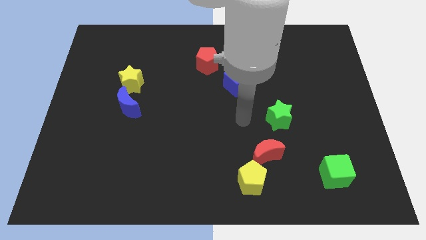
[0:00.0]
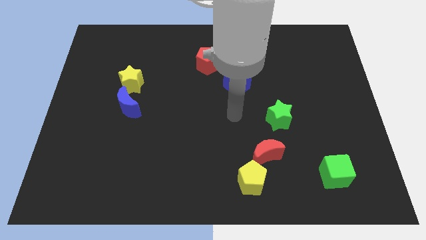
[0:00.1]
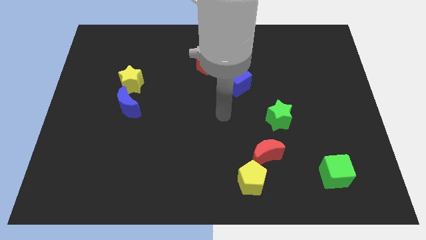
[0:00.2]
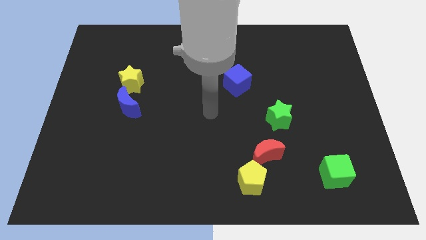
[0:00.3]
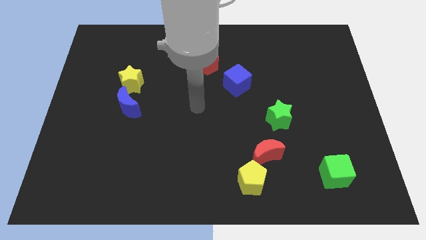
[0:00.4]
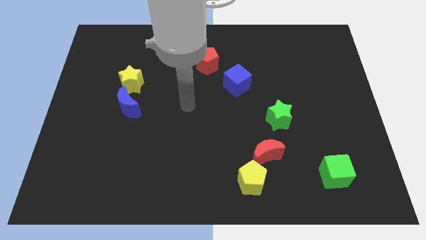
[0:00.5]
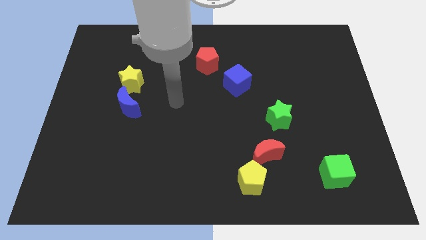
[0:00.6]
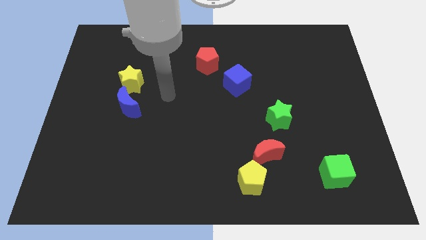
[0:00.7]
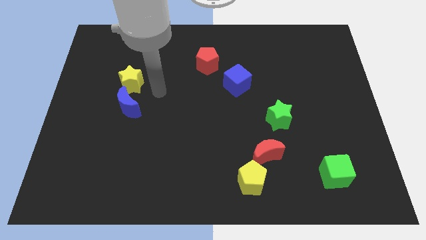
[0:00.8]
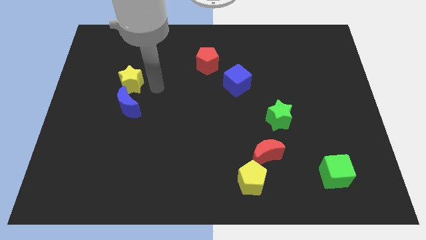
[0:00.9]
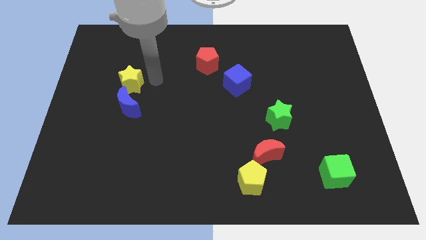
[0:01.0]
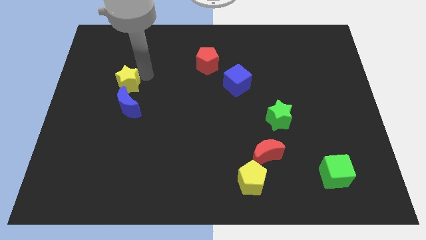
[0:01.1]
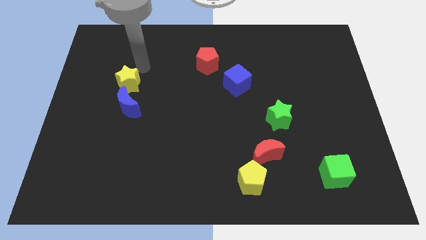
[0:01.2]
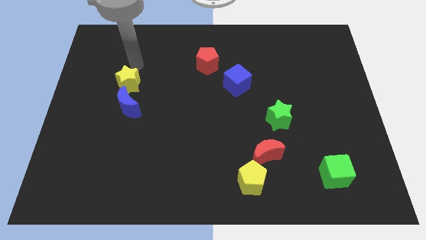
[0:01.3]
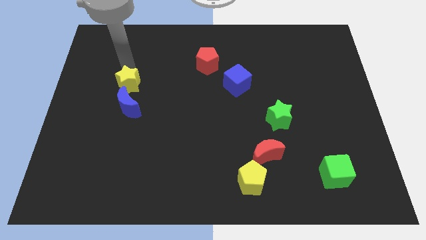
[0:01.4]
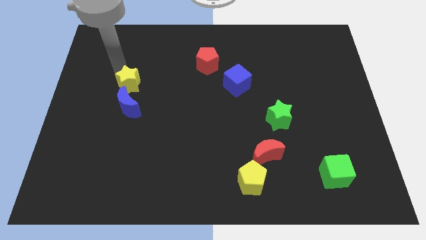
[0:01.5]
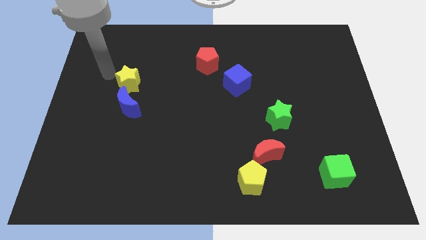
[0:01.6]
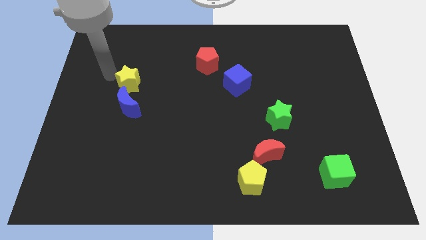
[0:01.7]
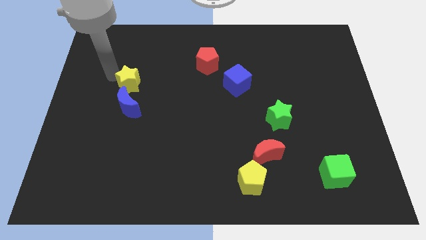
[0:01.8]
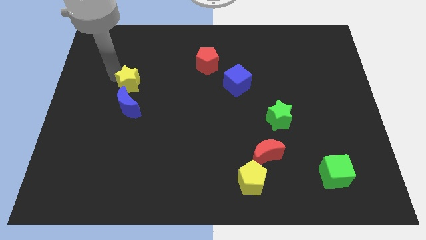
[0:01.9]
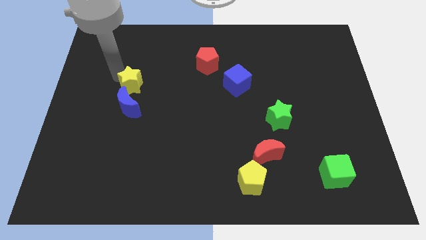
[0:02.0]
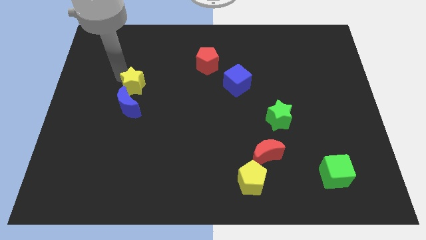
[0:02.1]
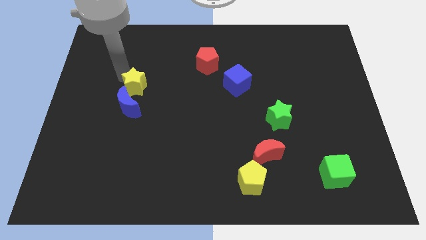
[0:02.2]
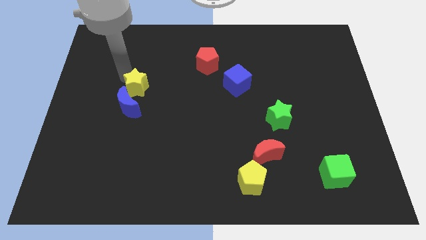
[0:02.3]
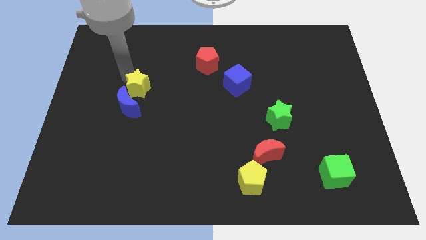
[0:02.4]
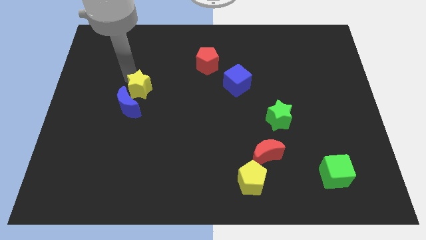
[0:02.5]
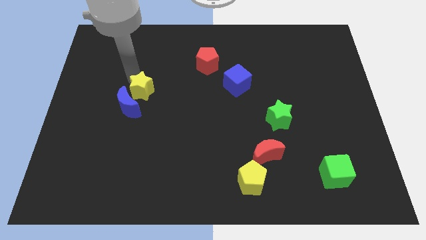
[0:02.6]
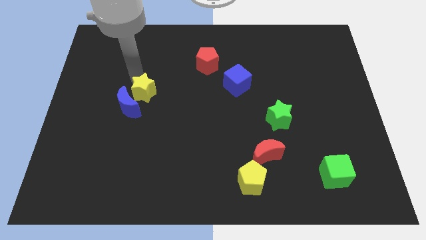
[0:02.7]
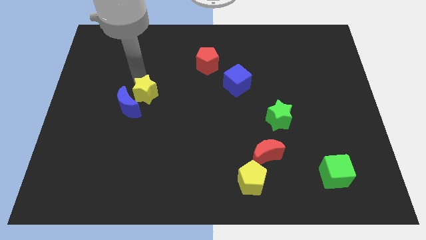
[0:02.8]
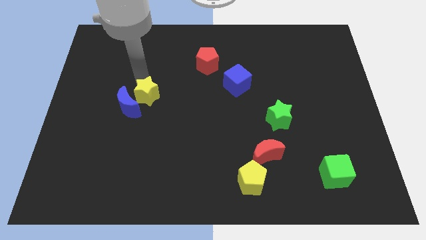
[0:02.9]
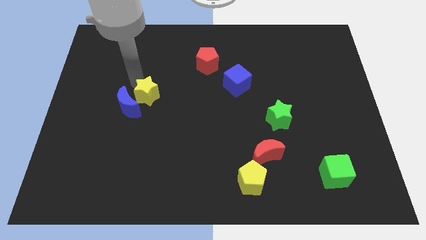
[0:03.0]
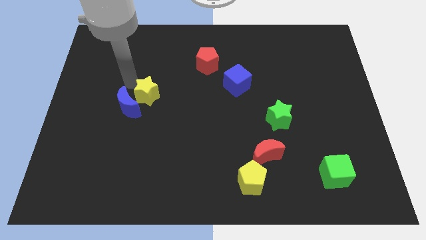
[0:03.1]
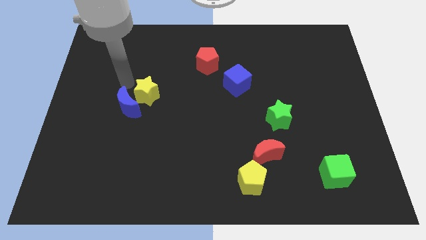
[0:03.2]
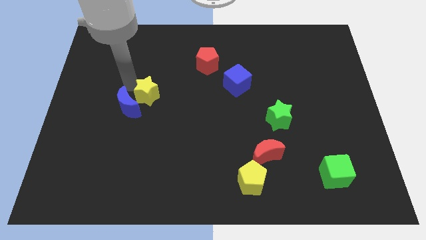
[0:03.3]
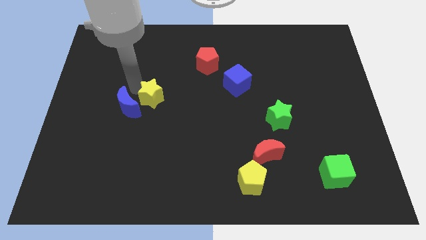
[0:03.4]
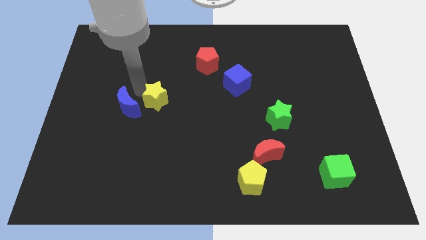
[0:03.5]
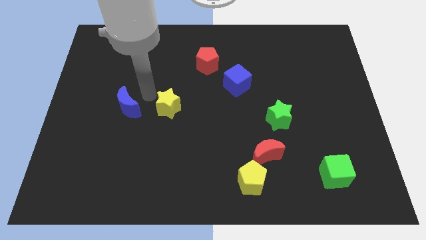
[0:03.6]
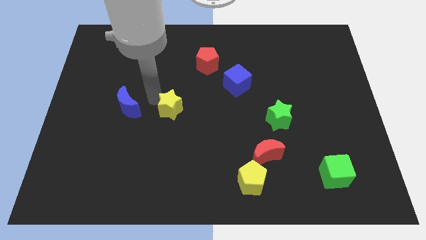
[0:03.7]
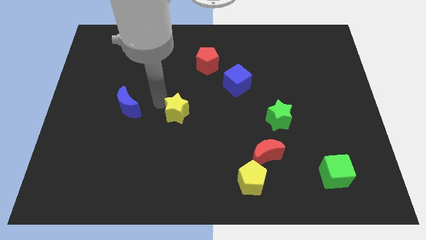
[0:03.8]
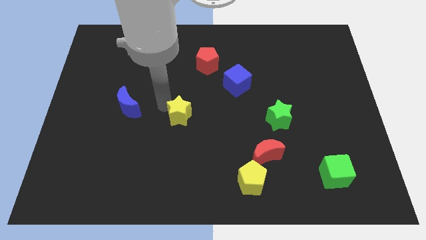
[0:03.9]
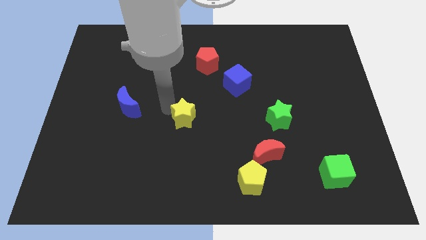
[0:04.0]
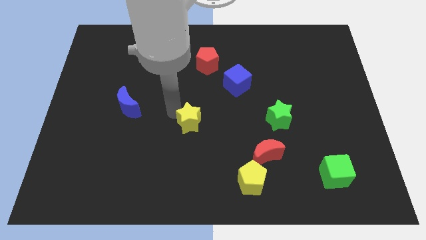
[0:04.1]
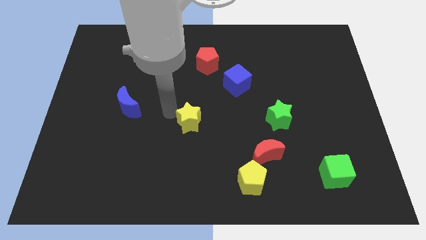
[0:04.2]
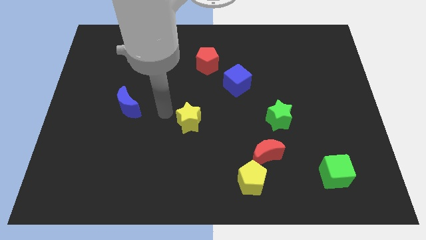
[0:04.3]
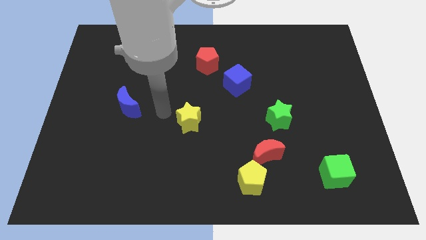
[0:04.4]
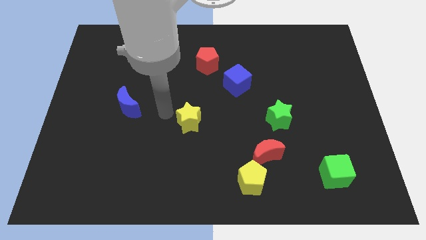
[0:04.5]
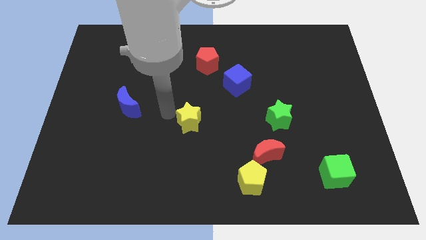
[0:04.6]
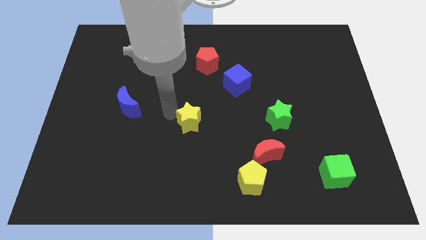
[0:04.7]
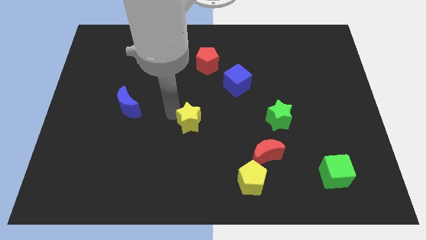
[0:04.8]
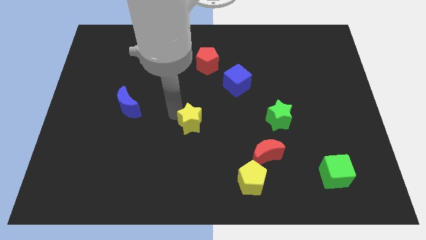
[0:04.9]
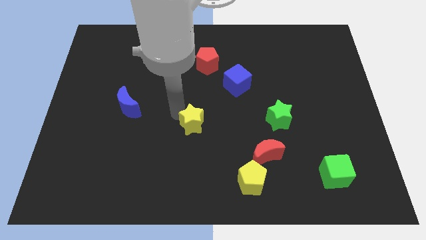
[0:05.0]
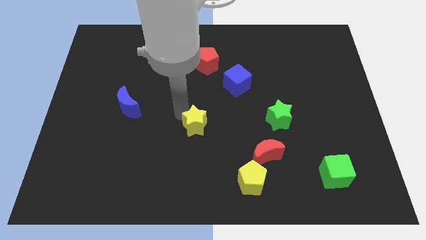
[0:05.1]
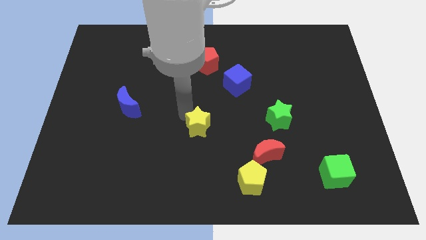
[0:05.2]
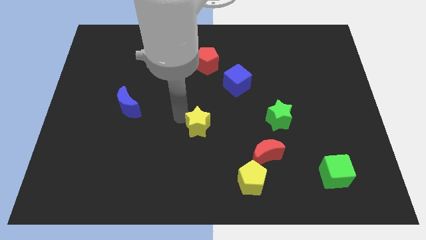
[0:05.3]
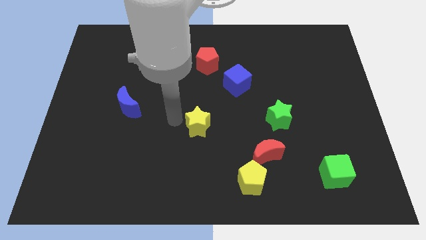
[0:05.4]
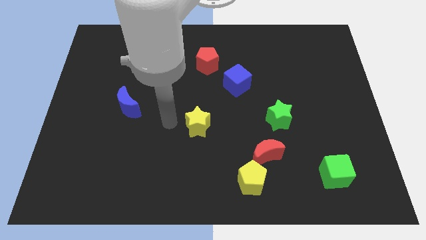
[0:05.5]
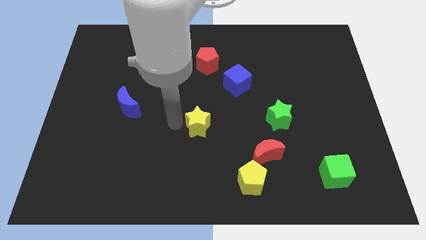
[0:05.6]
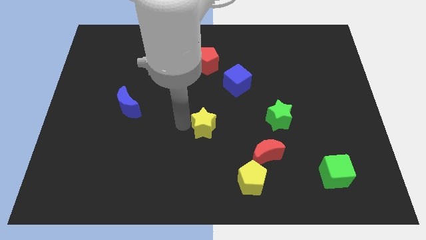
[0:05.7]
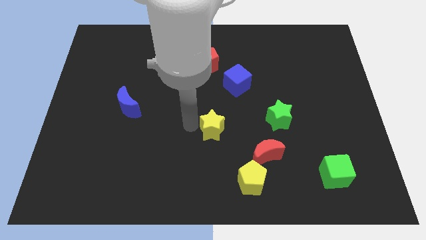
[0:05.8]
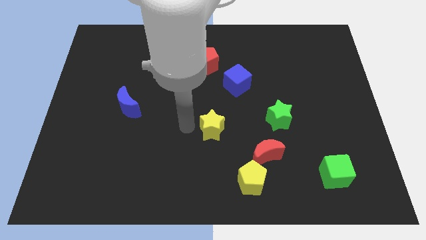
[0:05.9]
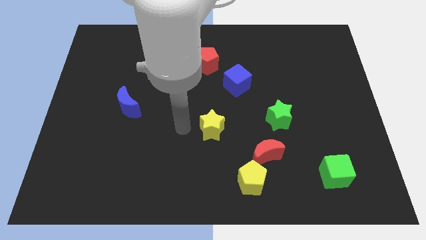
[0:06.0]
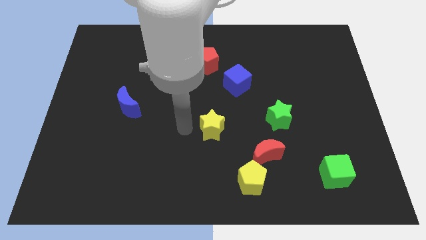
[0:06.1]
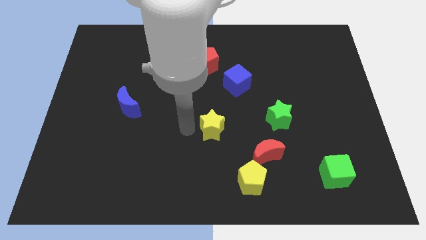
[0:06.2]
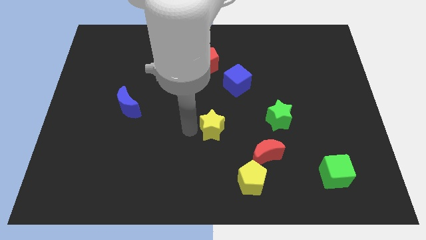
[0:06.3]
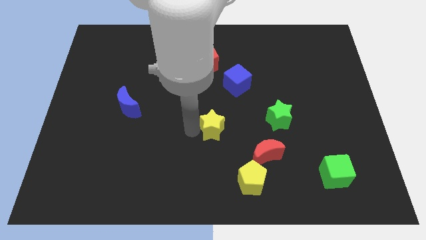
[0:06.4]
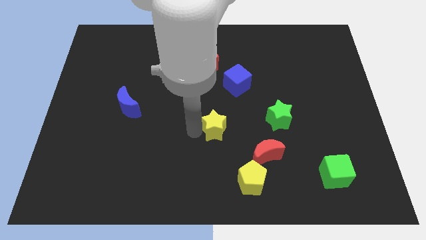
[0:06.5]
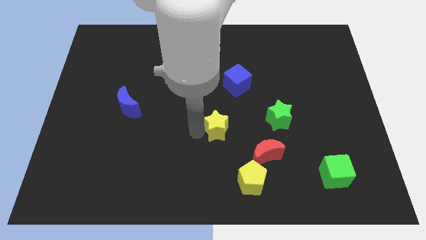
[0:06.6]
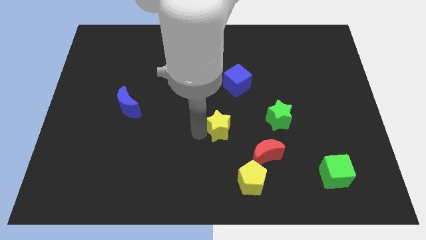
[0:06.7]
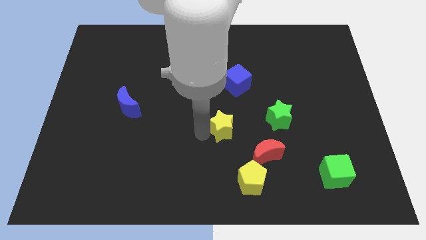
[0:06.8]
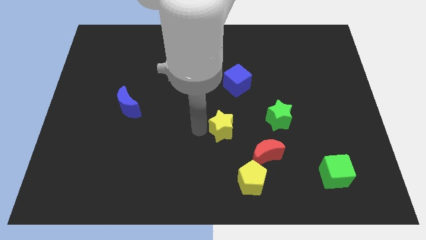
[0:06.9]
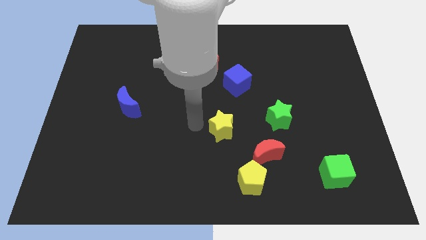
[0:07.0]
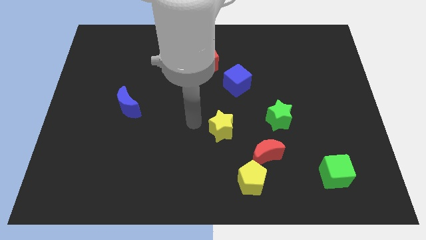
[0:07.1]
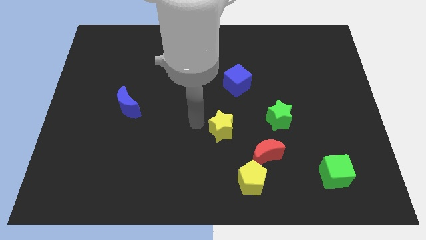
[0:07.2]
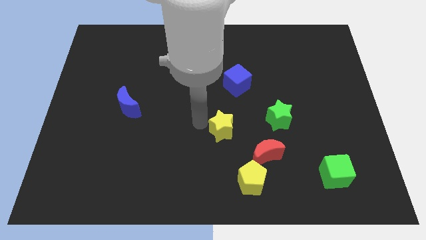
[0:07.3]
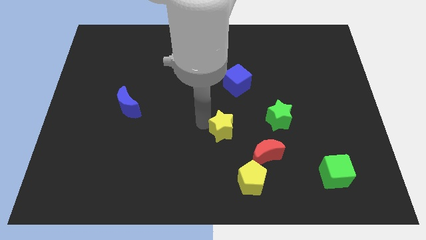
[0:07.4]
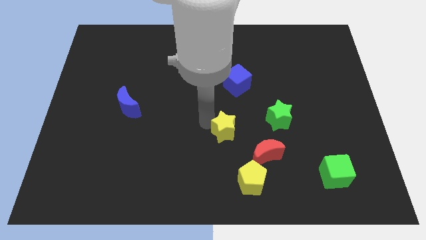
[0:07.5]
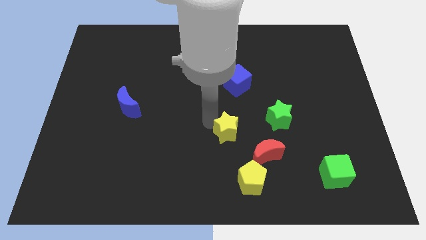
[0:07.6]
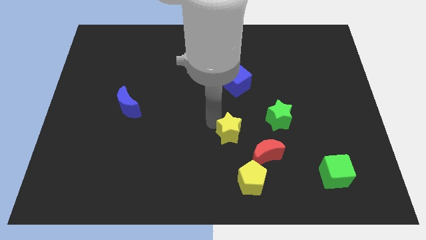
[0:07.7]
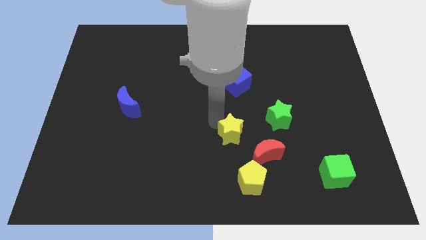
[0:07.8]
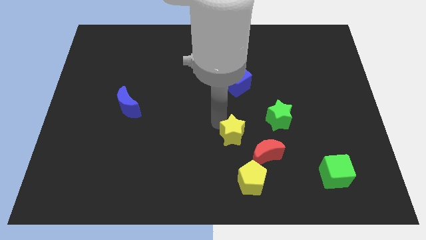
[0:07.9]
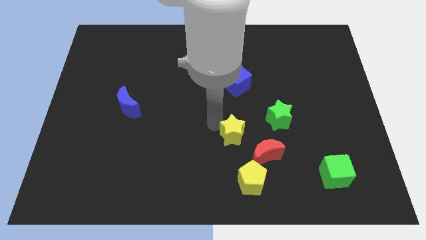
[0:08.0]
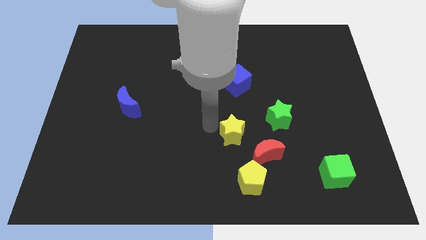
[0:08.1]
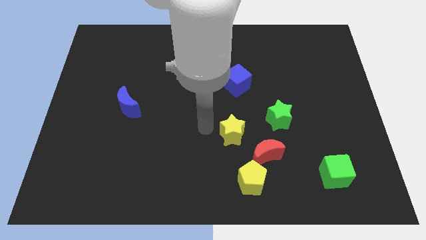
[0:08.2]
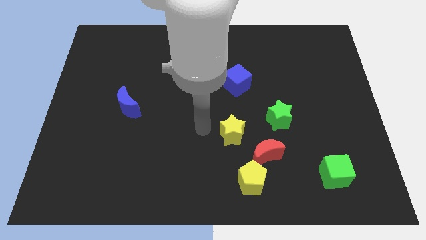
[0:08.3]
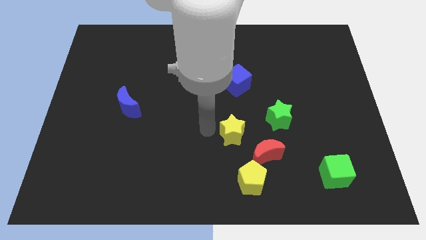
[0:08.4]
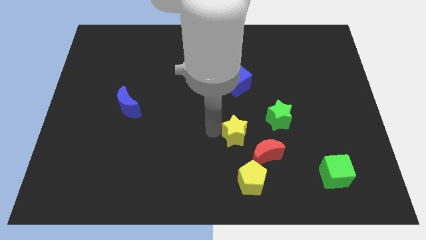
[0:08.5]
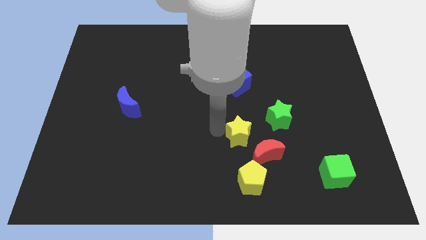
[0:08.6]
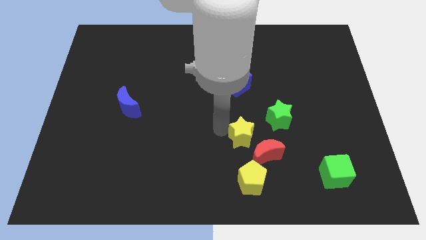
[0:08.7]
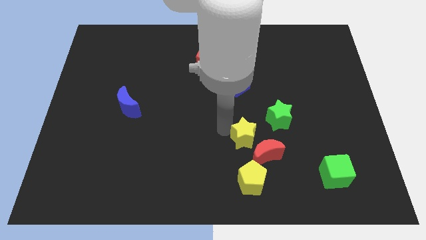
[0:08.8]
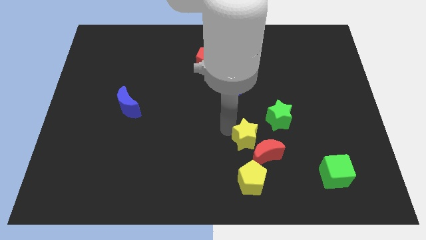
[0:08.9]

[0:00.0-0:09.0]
push the yellow star to the red moon
